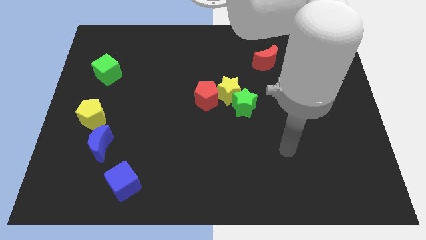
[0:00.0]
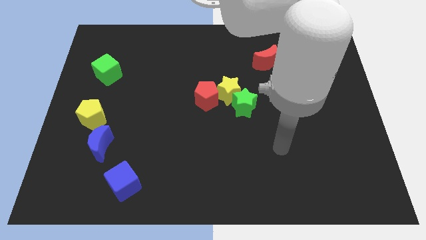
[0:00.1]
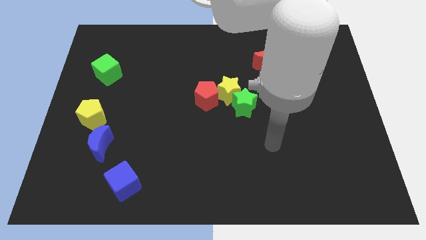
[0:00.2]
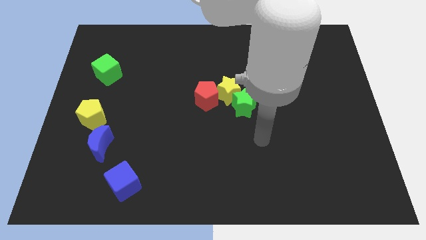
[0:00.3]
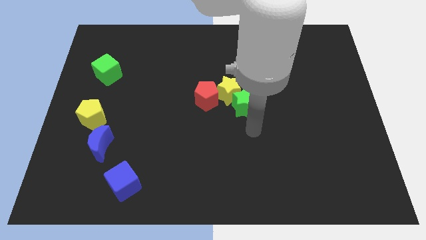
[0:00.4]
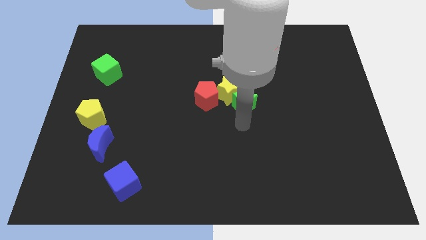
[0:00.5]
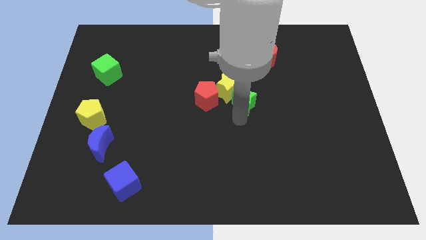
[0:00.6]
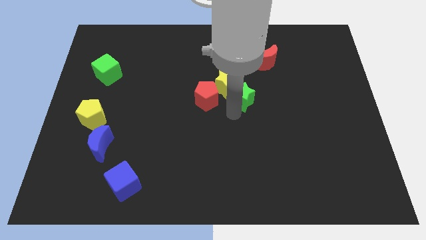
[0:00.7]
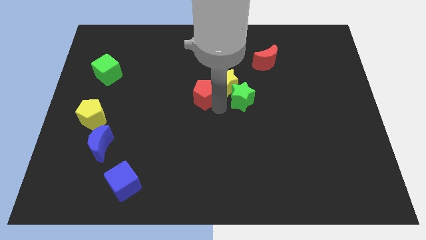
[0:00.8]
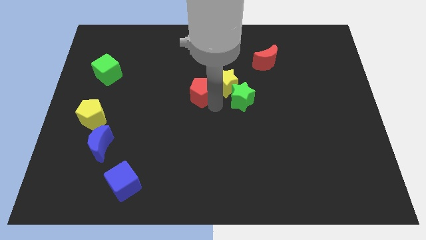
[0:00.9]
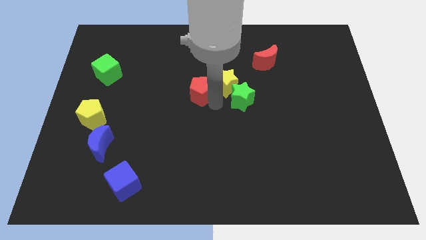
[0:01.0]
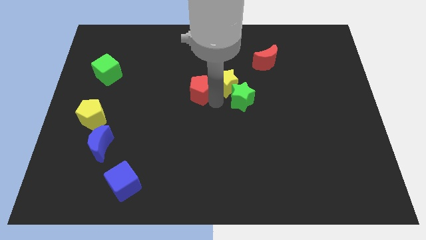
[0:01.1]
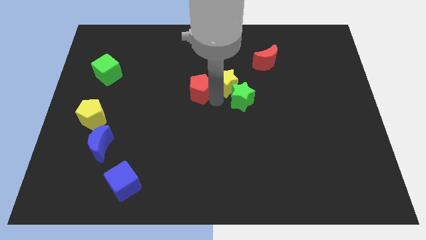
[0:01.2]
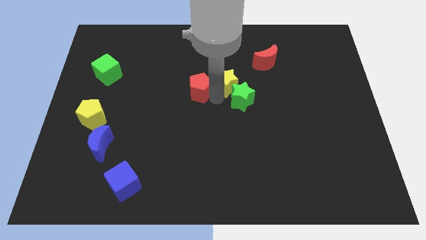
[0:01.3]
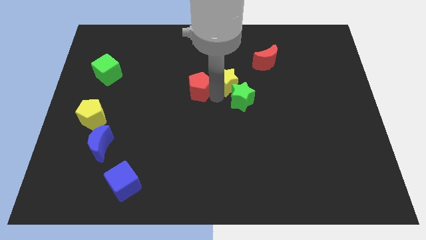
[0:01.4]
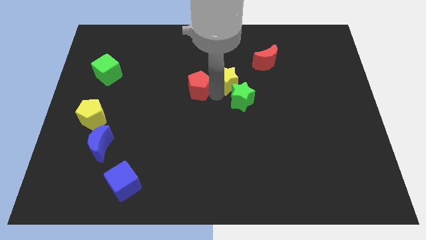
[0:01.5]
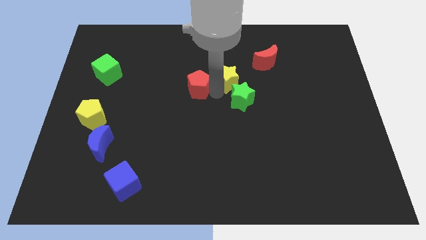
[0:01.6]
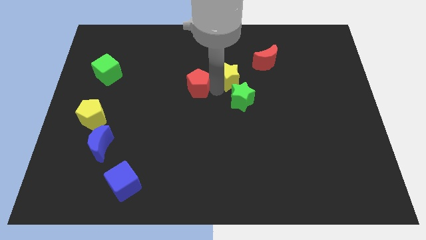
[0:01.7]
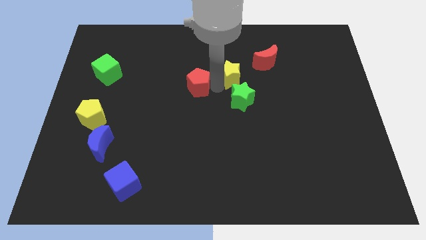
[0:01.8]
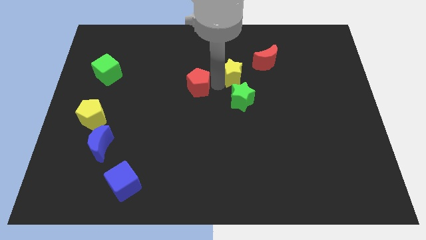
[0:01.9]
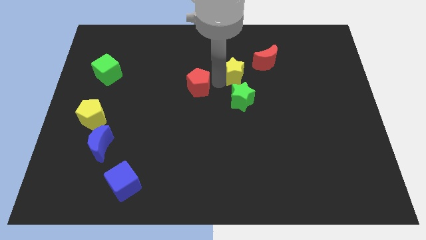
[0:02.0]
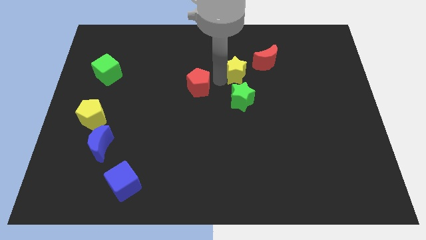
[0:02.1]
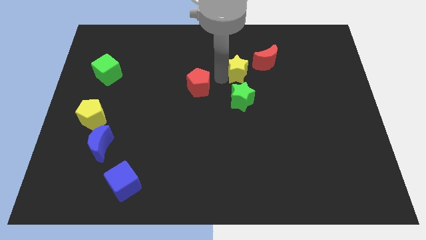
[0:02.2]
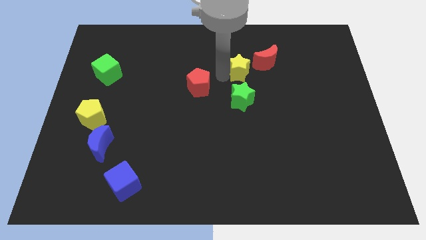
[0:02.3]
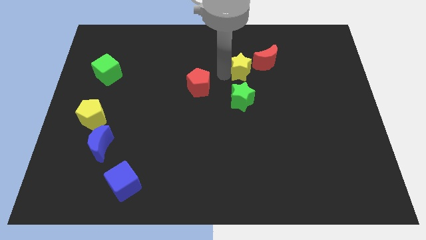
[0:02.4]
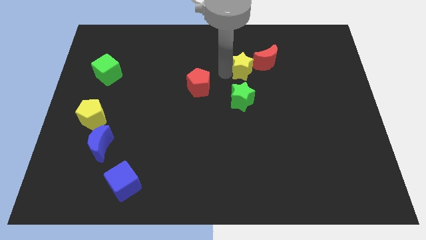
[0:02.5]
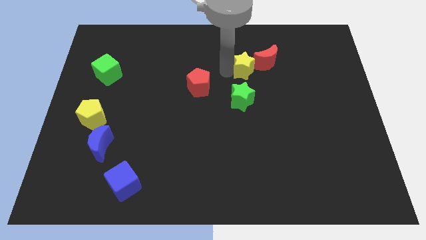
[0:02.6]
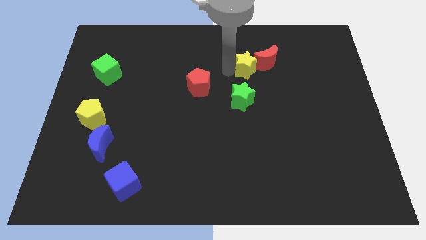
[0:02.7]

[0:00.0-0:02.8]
separate the yellow star from the red pentagon and green star

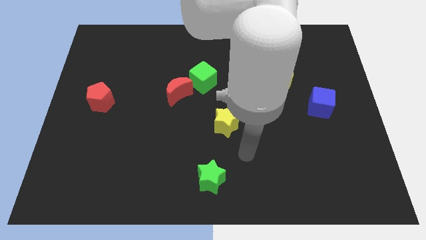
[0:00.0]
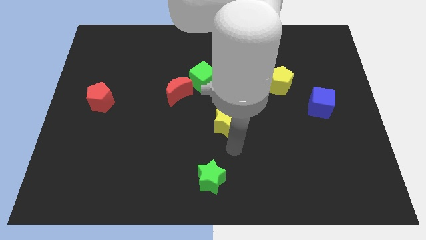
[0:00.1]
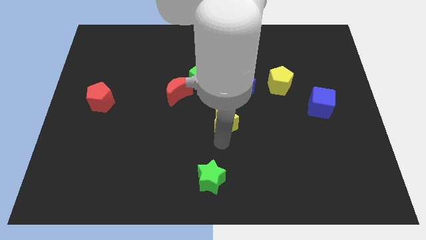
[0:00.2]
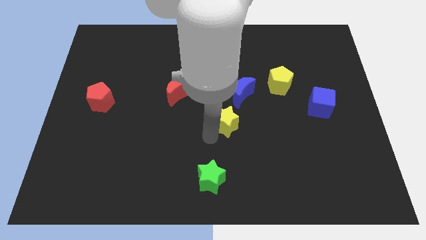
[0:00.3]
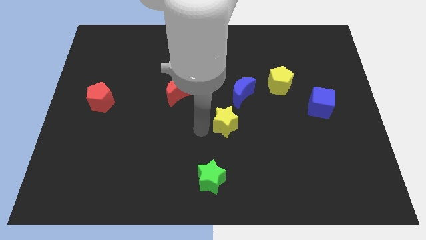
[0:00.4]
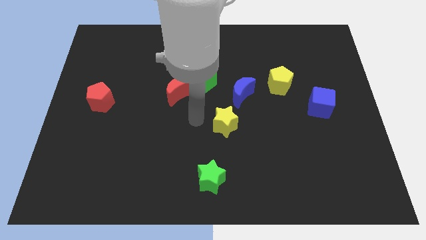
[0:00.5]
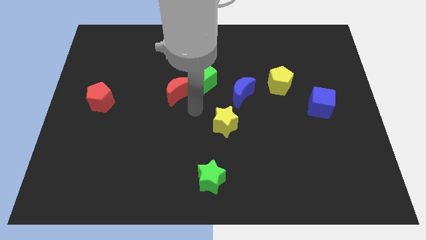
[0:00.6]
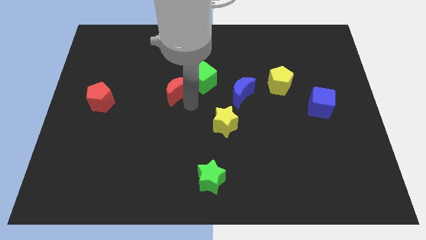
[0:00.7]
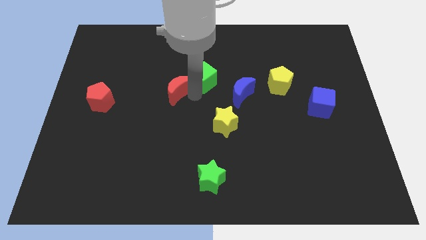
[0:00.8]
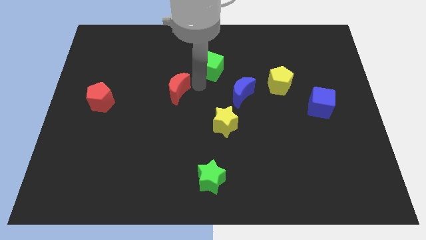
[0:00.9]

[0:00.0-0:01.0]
pull the red moon apart from the green cube

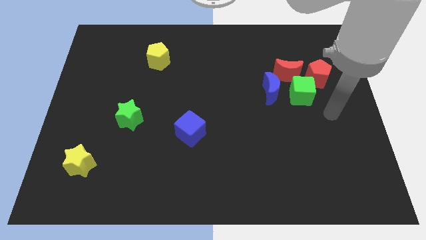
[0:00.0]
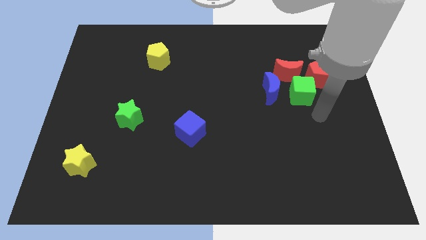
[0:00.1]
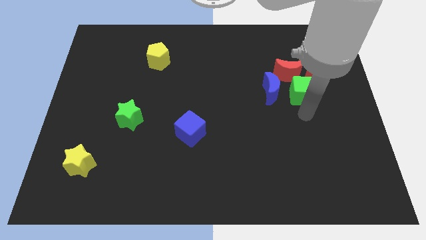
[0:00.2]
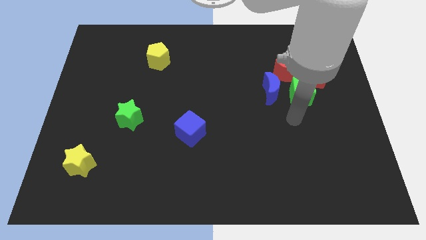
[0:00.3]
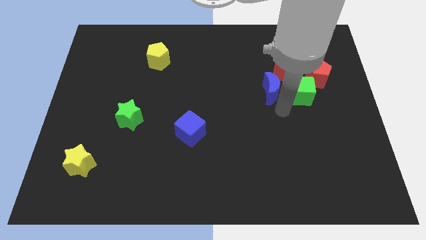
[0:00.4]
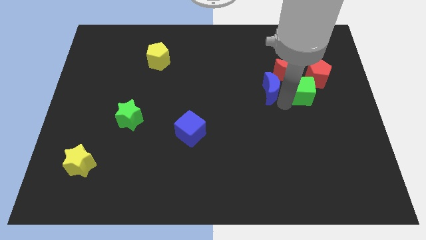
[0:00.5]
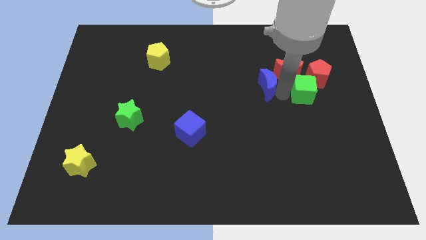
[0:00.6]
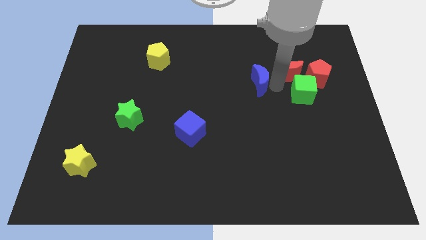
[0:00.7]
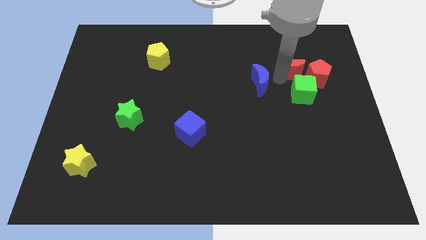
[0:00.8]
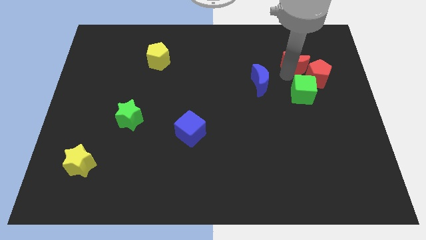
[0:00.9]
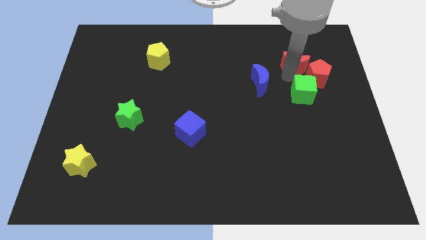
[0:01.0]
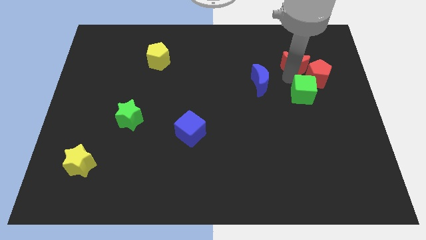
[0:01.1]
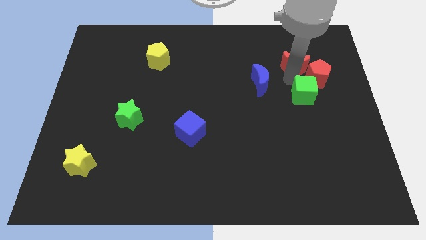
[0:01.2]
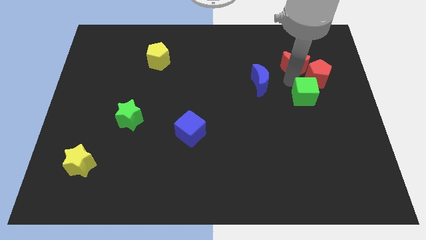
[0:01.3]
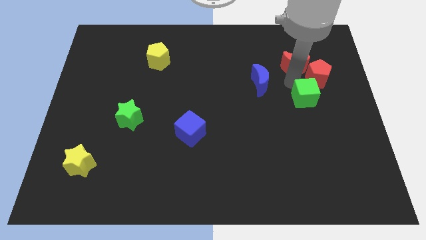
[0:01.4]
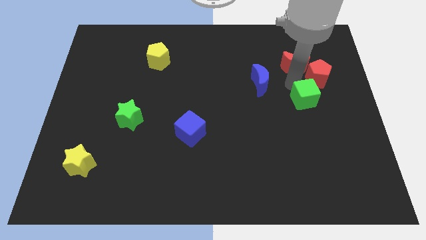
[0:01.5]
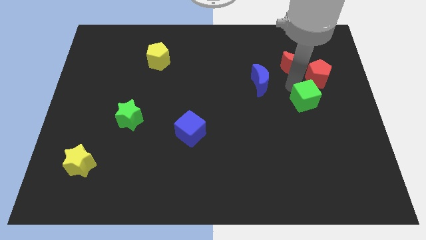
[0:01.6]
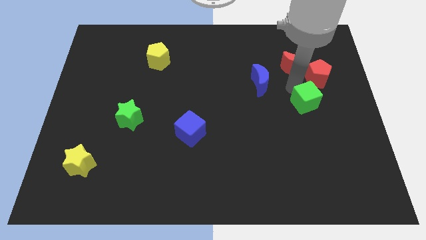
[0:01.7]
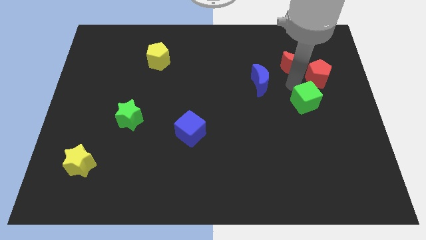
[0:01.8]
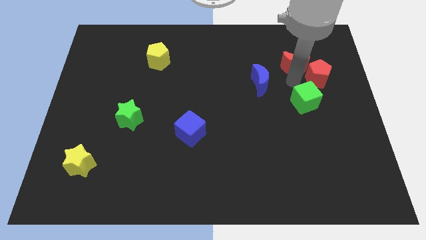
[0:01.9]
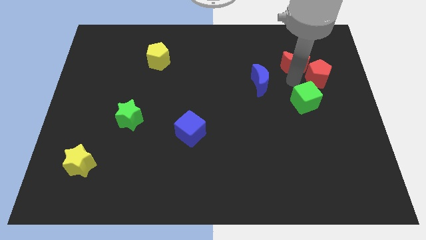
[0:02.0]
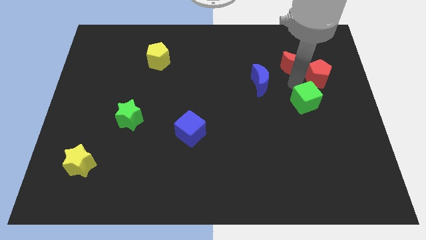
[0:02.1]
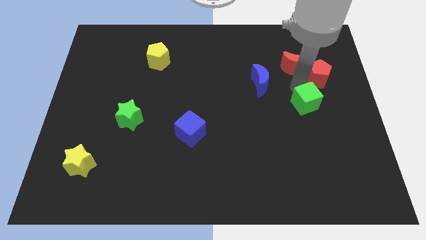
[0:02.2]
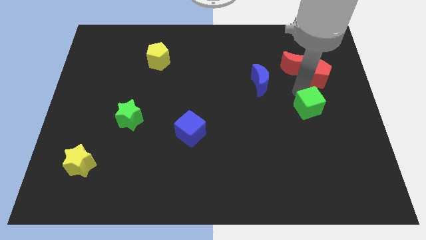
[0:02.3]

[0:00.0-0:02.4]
move the green cube away from the group

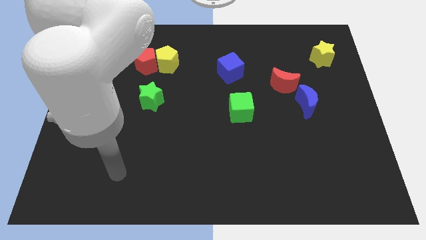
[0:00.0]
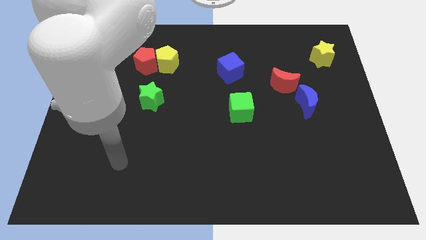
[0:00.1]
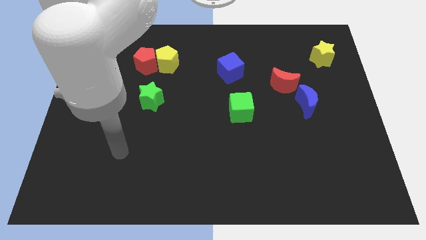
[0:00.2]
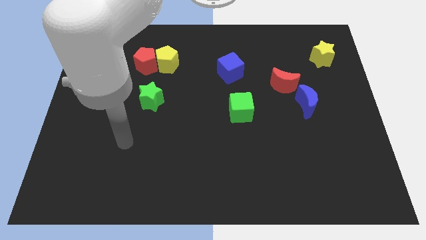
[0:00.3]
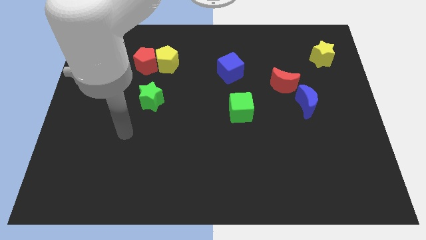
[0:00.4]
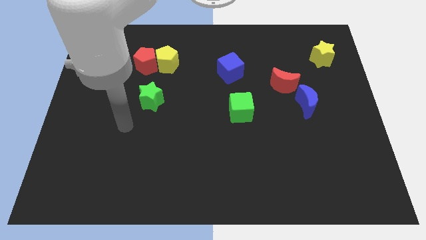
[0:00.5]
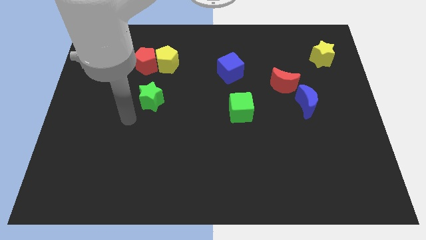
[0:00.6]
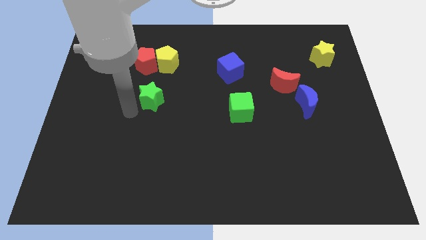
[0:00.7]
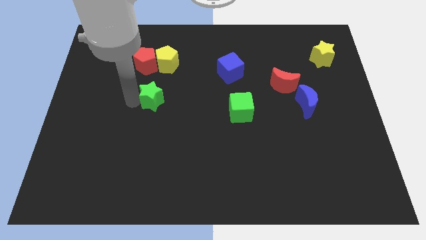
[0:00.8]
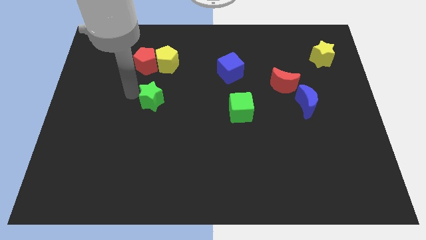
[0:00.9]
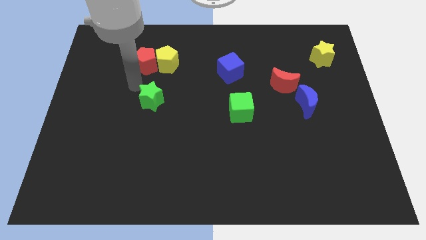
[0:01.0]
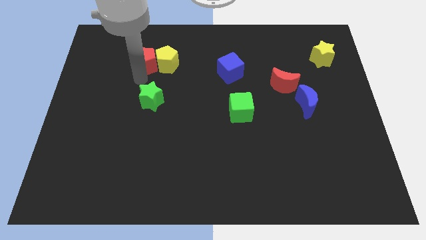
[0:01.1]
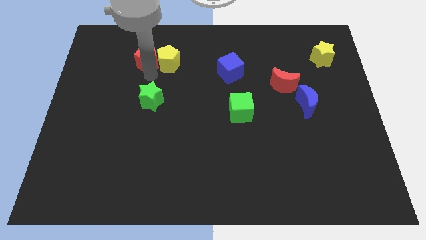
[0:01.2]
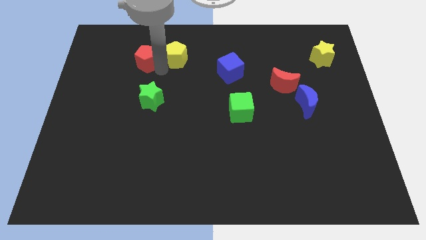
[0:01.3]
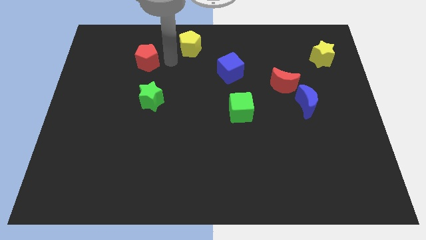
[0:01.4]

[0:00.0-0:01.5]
separate the red pentagon from the yellow pentagon

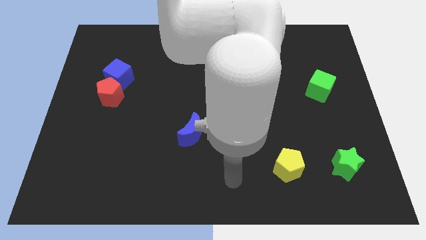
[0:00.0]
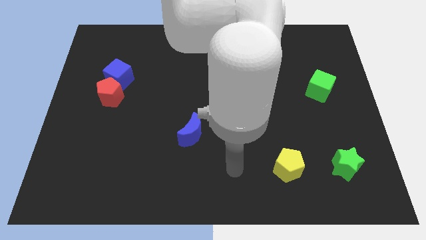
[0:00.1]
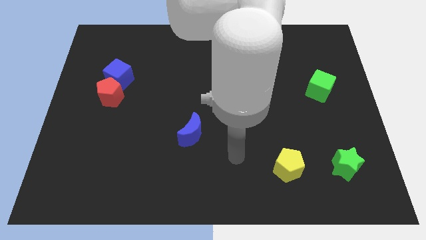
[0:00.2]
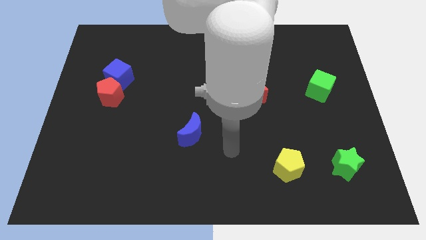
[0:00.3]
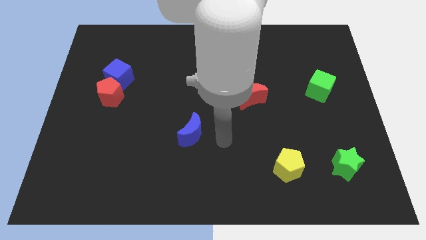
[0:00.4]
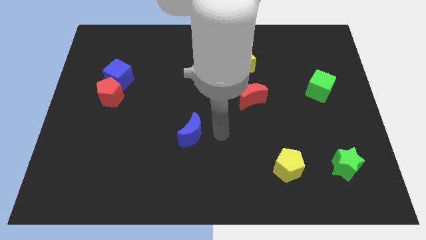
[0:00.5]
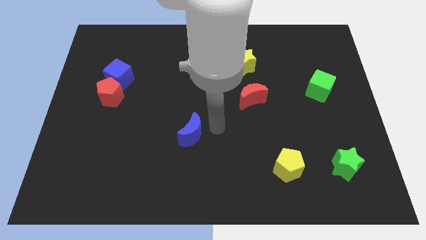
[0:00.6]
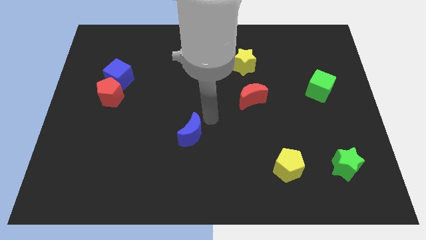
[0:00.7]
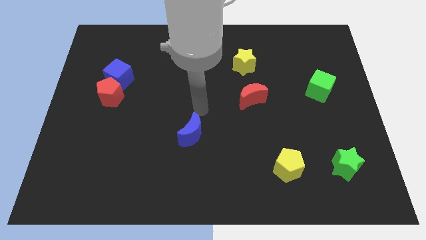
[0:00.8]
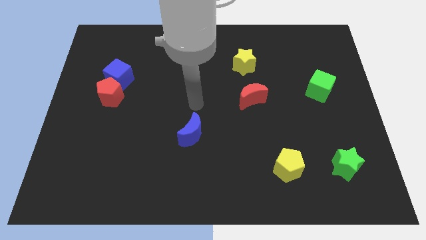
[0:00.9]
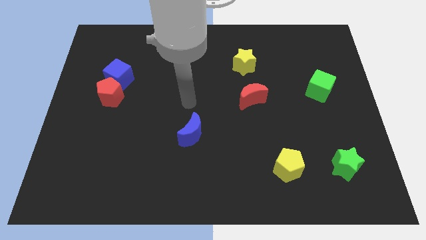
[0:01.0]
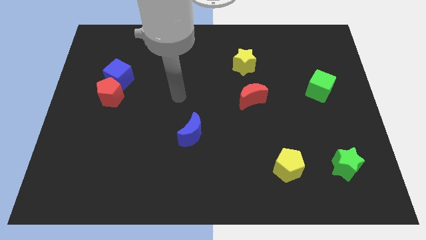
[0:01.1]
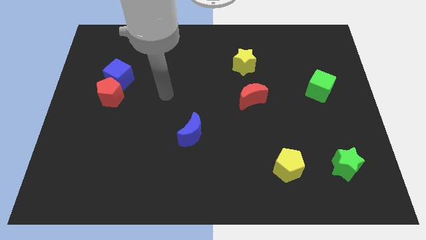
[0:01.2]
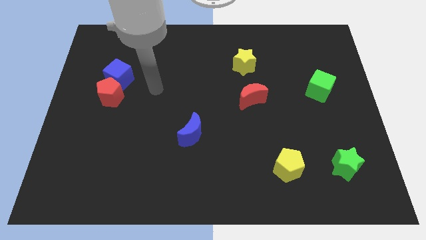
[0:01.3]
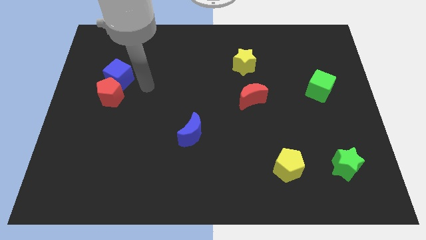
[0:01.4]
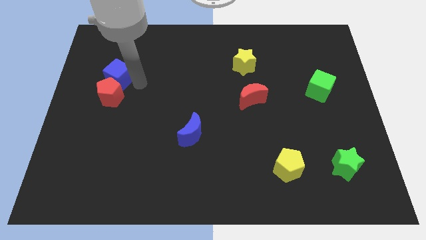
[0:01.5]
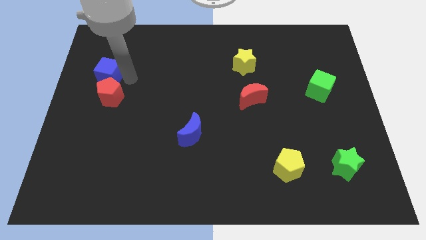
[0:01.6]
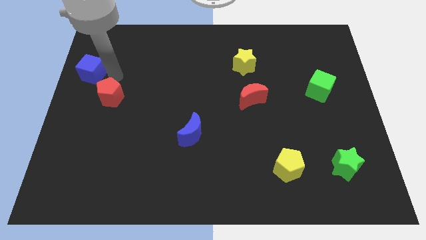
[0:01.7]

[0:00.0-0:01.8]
separate the red pentagon from the blue cube
